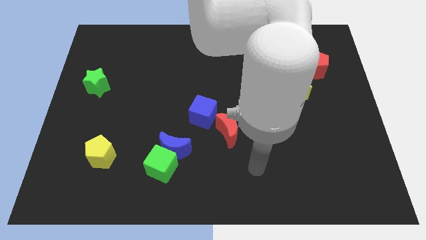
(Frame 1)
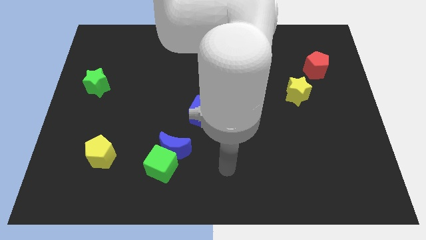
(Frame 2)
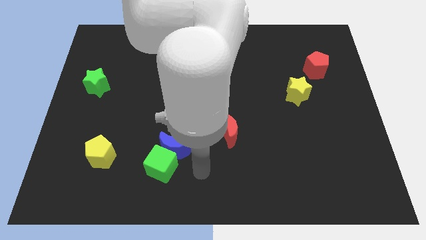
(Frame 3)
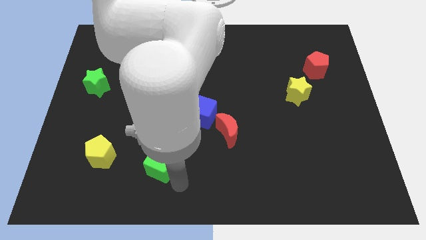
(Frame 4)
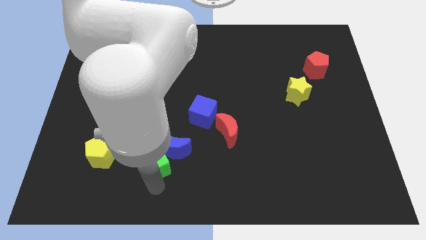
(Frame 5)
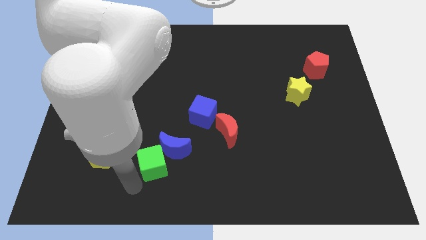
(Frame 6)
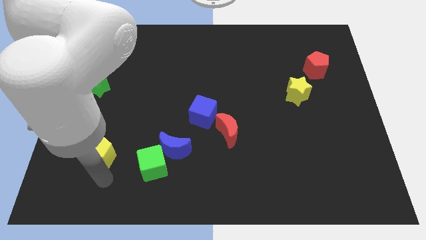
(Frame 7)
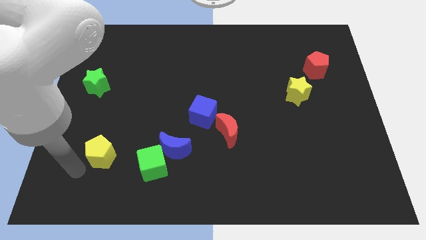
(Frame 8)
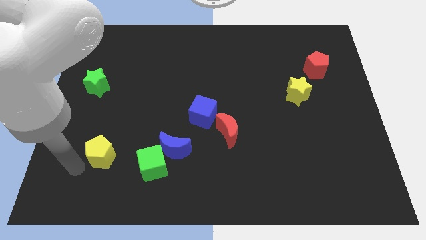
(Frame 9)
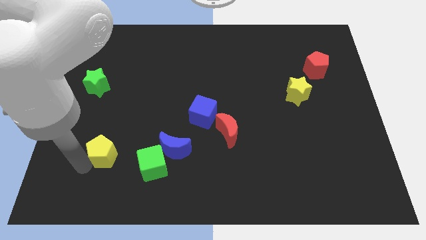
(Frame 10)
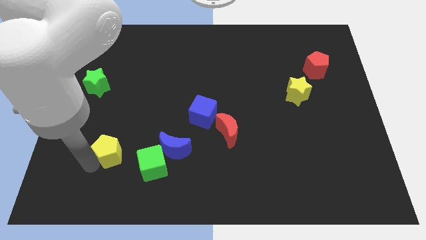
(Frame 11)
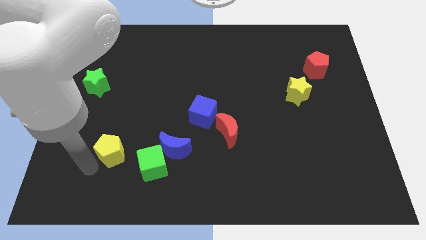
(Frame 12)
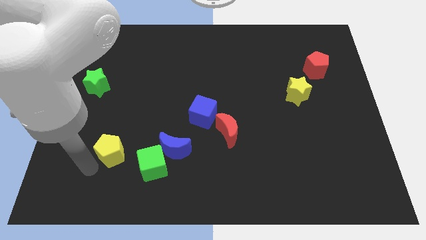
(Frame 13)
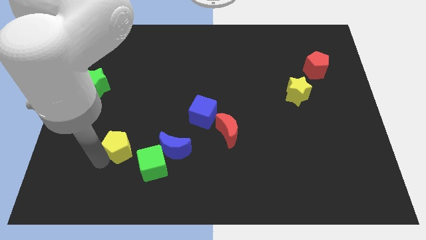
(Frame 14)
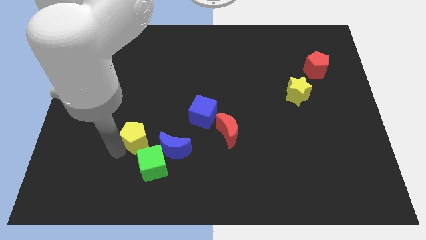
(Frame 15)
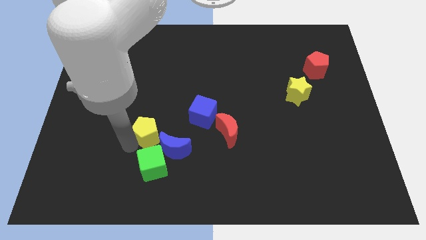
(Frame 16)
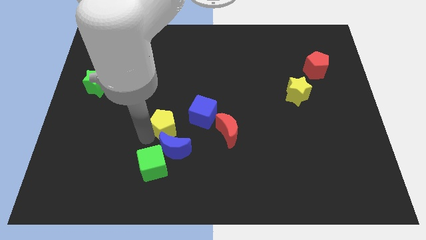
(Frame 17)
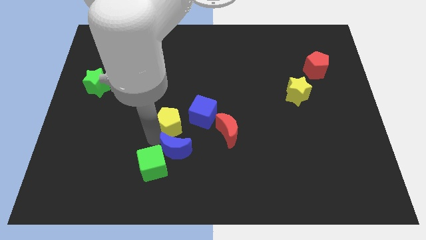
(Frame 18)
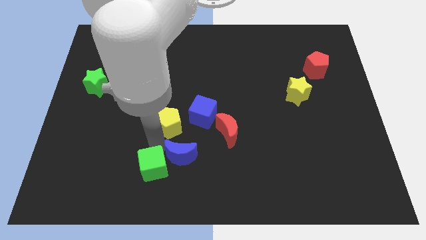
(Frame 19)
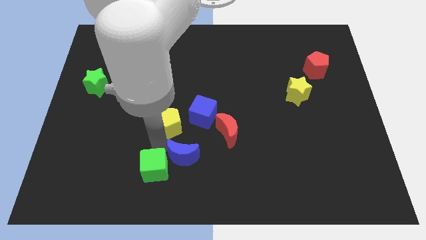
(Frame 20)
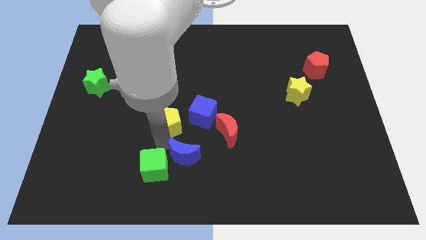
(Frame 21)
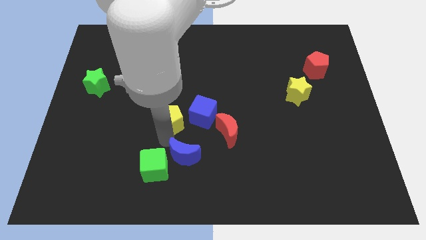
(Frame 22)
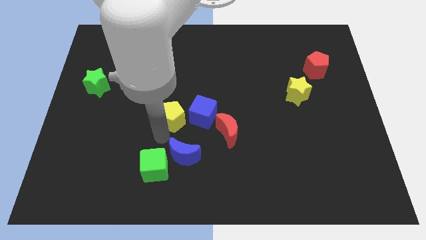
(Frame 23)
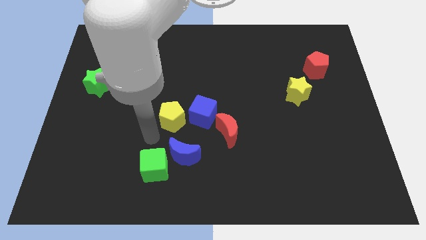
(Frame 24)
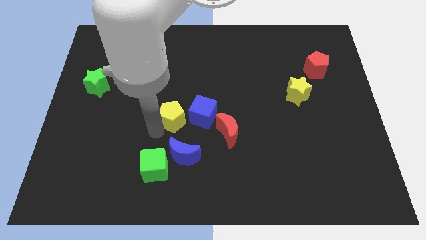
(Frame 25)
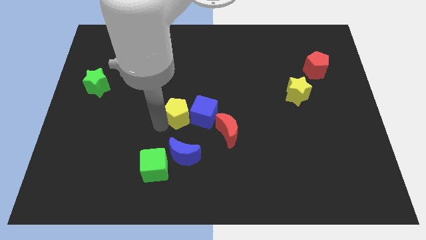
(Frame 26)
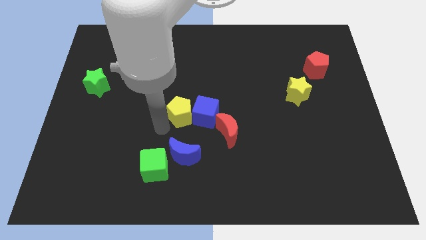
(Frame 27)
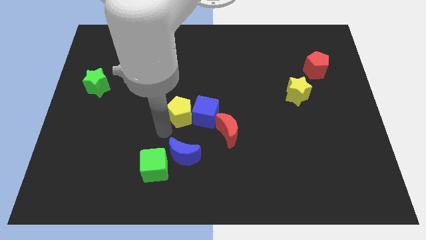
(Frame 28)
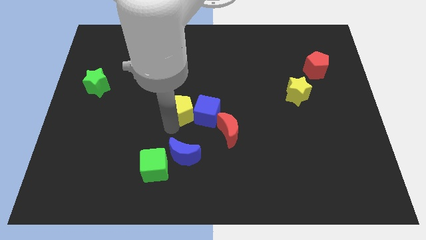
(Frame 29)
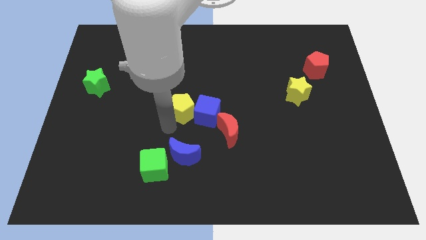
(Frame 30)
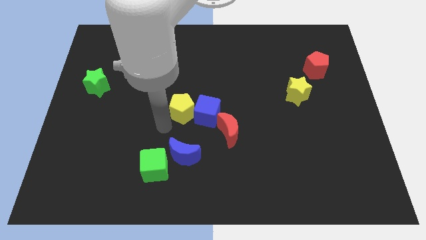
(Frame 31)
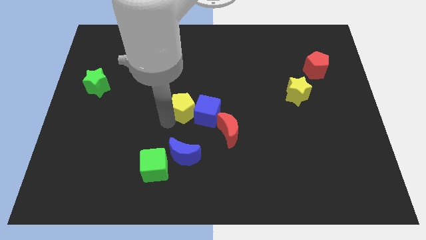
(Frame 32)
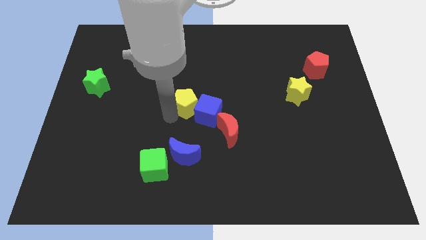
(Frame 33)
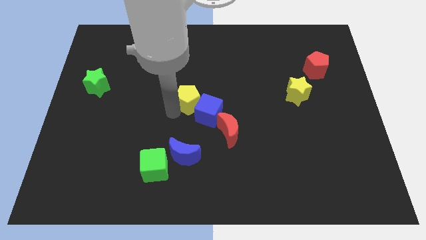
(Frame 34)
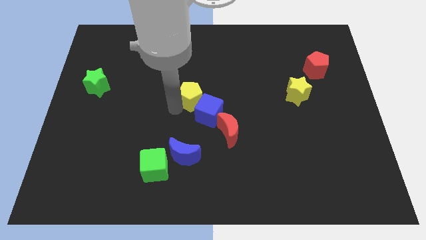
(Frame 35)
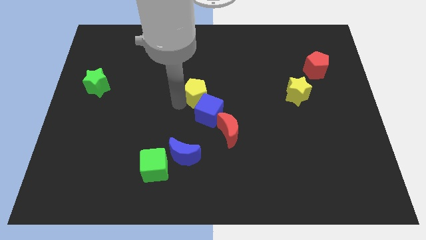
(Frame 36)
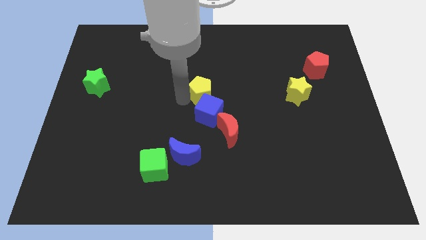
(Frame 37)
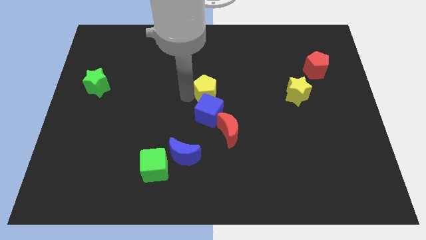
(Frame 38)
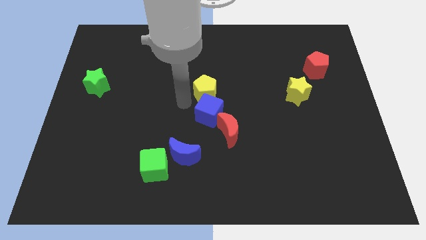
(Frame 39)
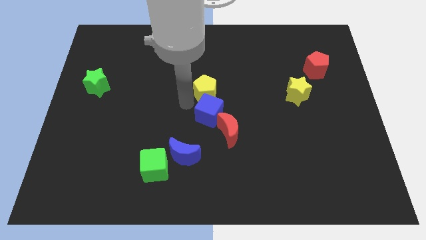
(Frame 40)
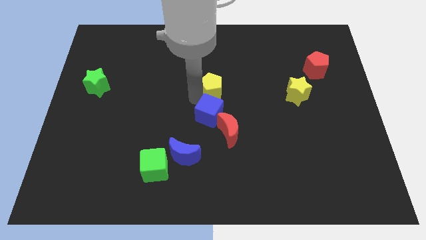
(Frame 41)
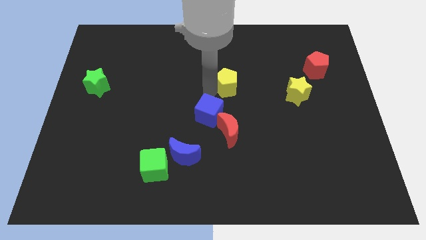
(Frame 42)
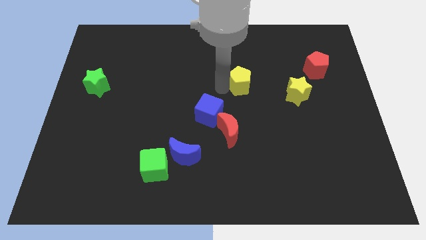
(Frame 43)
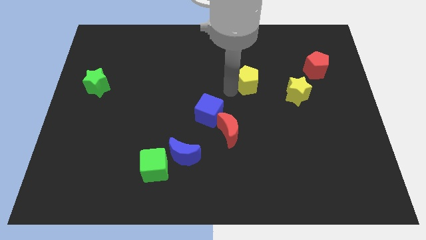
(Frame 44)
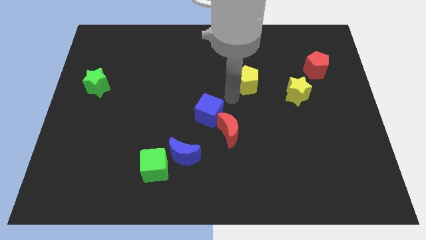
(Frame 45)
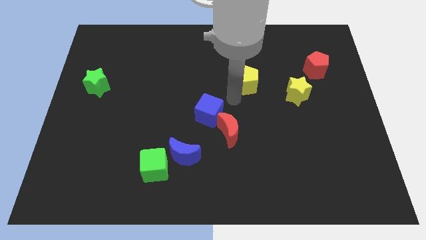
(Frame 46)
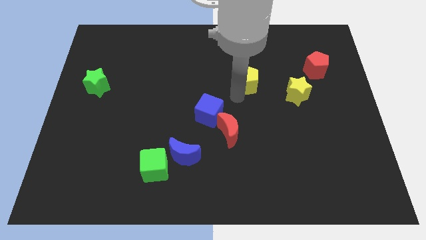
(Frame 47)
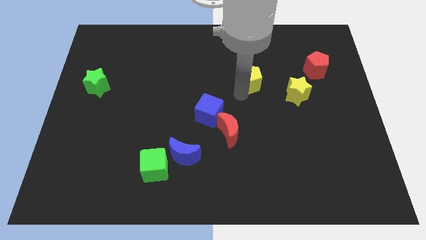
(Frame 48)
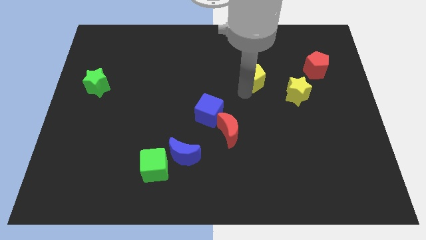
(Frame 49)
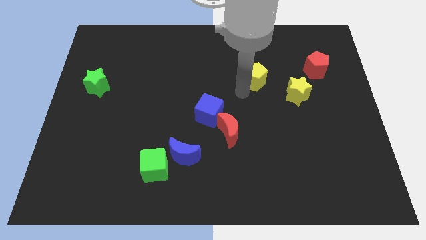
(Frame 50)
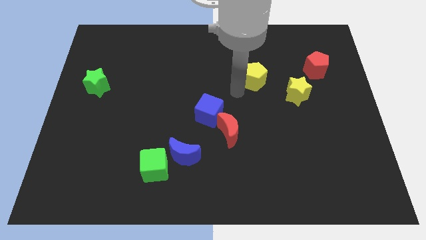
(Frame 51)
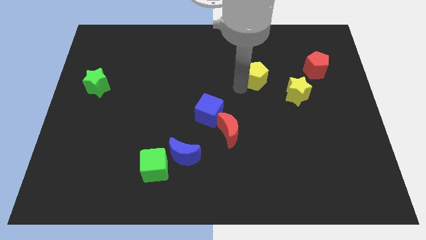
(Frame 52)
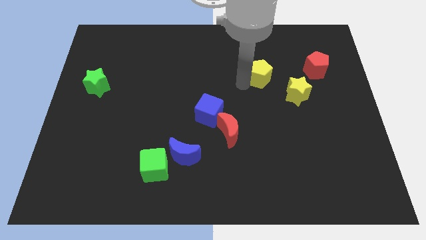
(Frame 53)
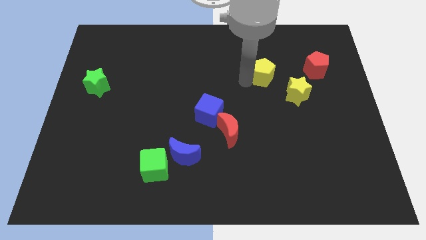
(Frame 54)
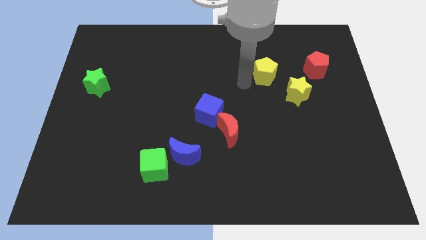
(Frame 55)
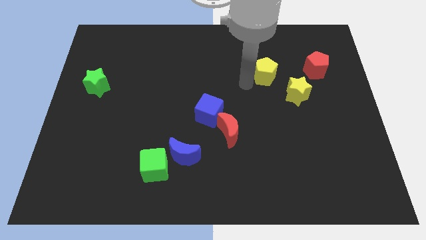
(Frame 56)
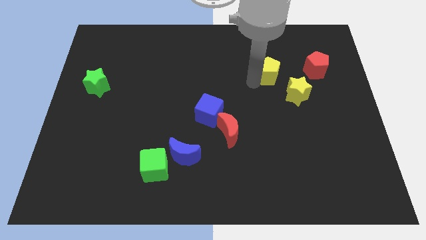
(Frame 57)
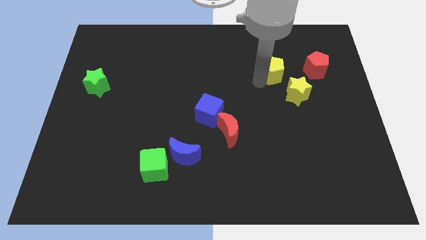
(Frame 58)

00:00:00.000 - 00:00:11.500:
put the yellow pentagon above the yellow star

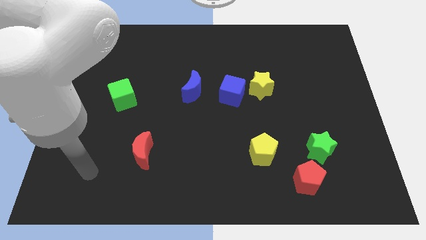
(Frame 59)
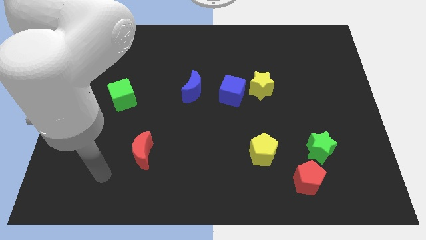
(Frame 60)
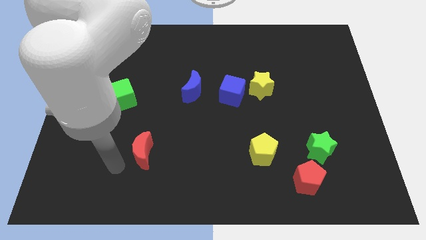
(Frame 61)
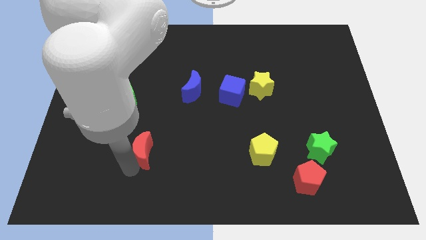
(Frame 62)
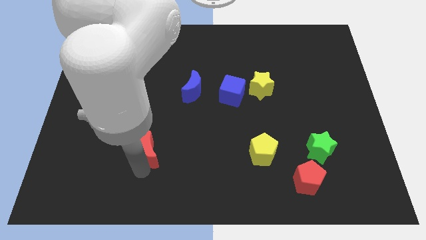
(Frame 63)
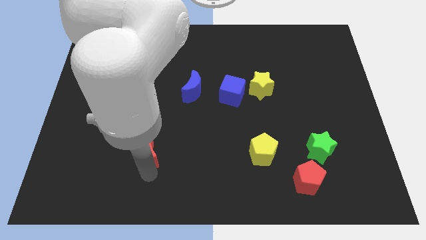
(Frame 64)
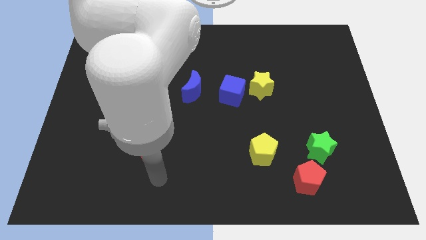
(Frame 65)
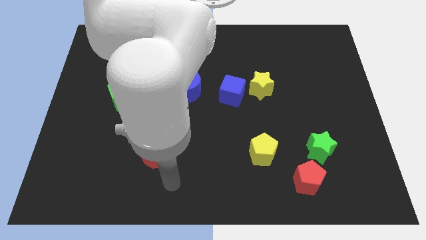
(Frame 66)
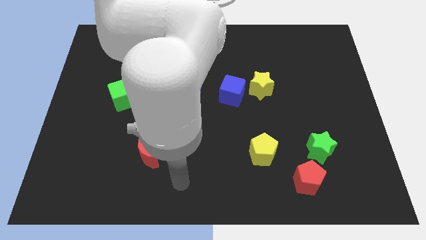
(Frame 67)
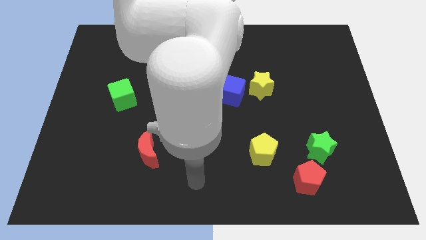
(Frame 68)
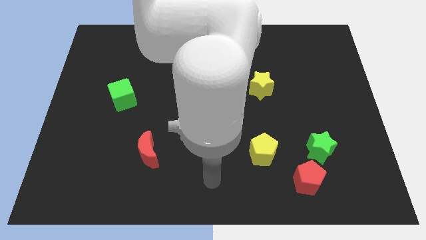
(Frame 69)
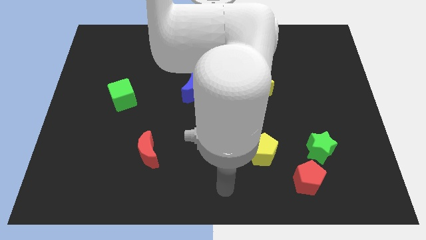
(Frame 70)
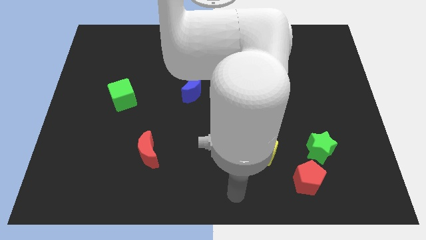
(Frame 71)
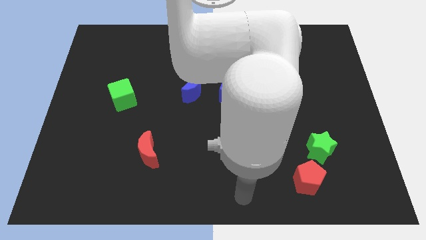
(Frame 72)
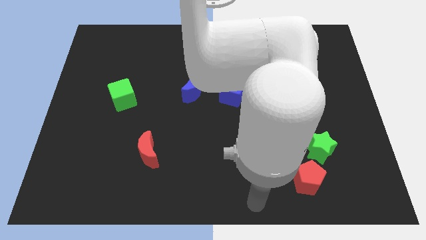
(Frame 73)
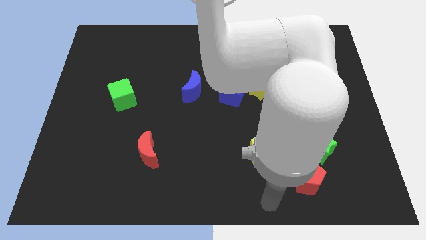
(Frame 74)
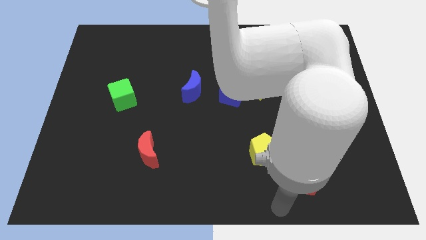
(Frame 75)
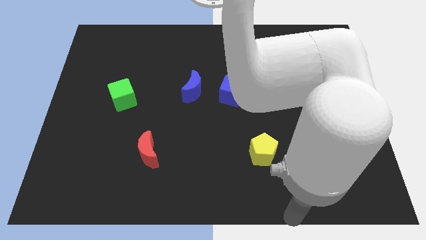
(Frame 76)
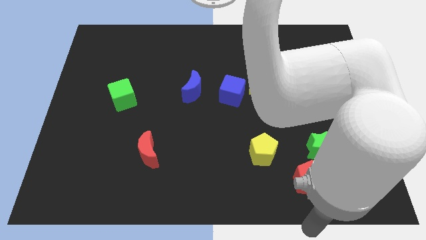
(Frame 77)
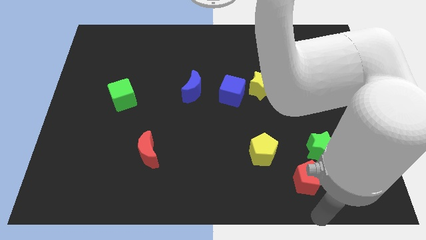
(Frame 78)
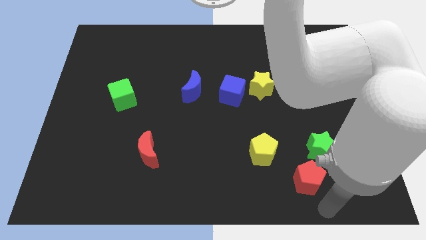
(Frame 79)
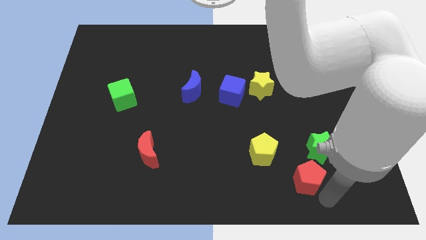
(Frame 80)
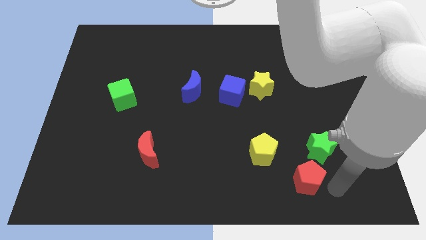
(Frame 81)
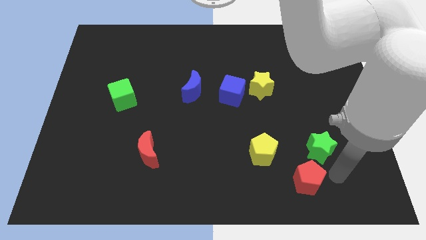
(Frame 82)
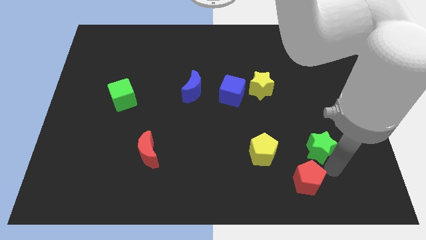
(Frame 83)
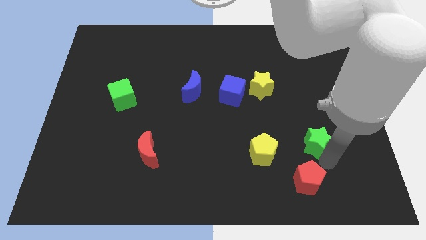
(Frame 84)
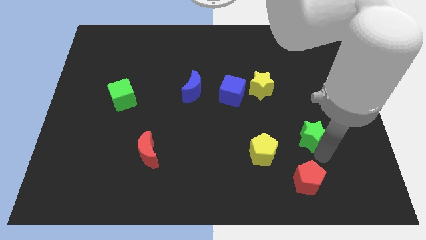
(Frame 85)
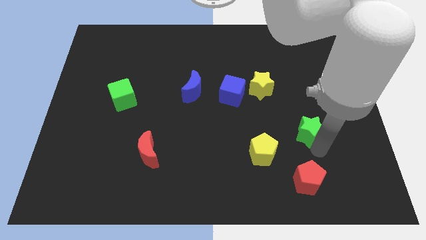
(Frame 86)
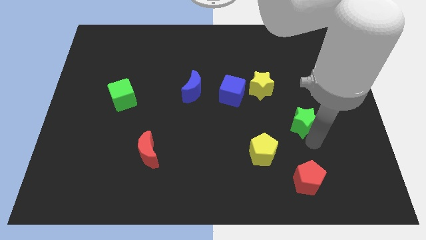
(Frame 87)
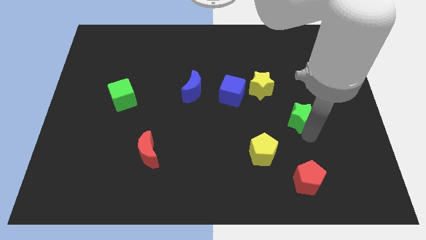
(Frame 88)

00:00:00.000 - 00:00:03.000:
put the green star to the bottom right of the yellow star
